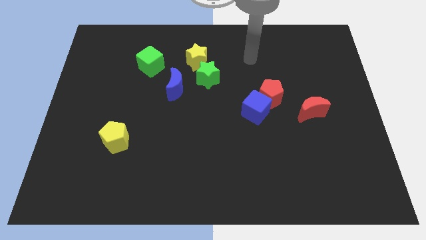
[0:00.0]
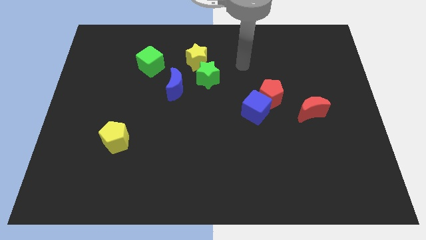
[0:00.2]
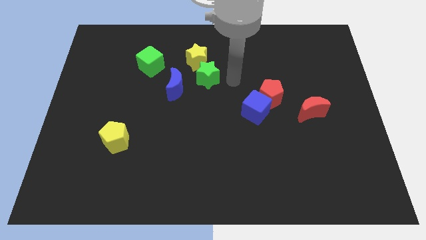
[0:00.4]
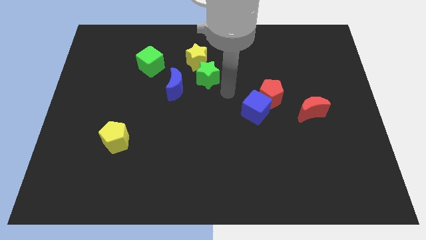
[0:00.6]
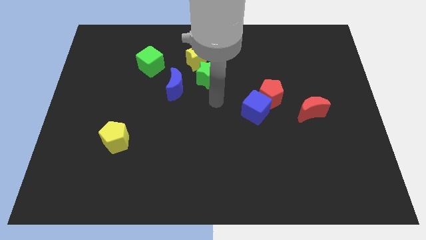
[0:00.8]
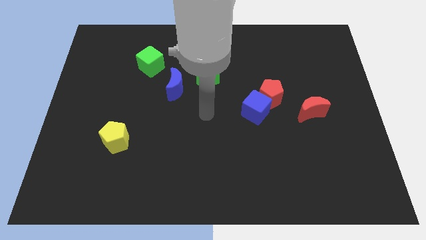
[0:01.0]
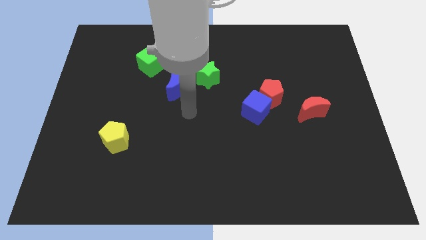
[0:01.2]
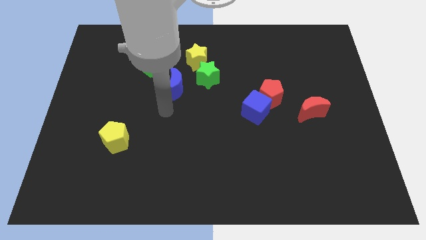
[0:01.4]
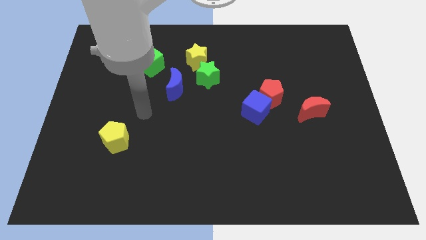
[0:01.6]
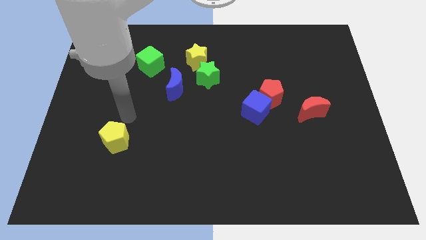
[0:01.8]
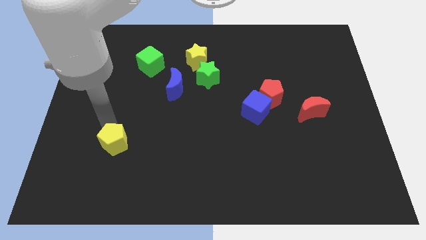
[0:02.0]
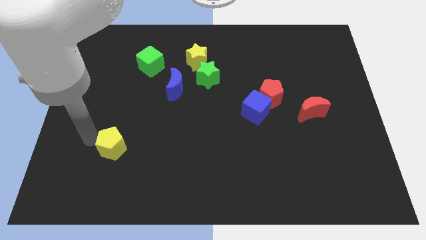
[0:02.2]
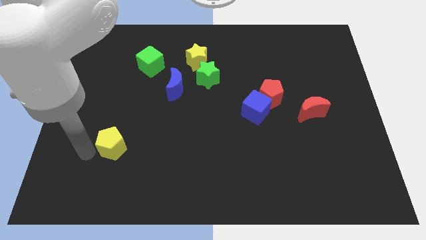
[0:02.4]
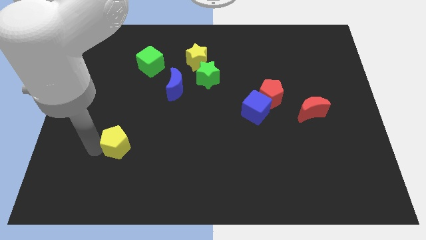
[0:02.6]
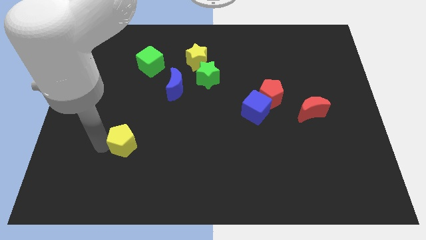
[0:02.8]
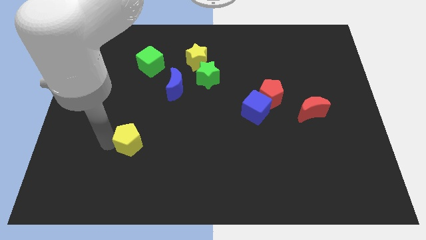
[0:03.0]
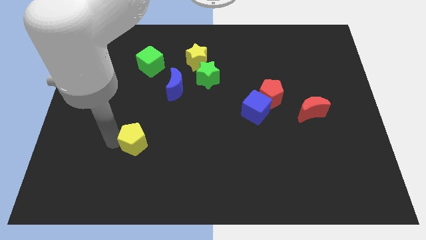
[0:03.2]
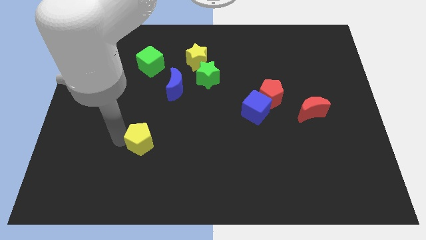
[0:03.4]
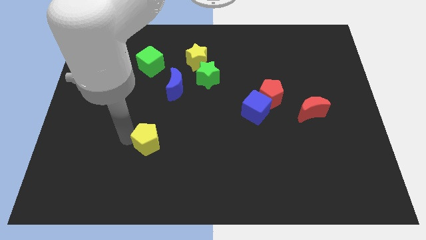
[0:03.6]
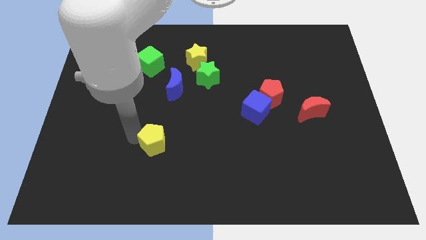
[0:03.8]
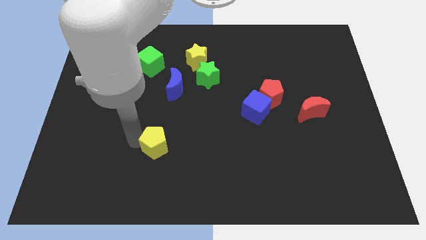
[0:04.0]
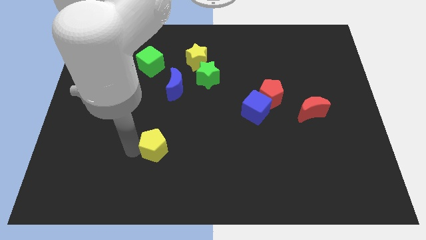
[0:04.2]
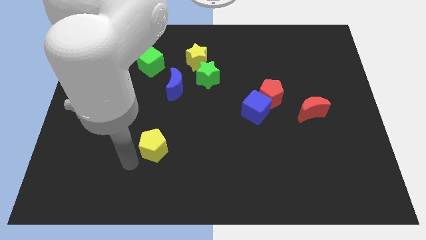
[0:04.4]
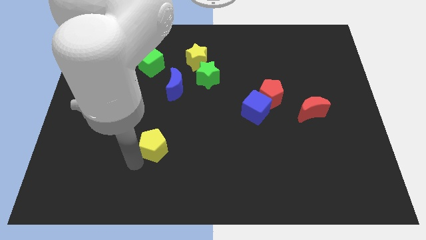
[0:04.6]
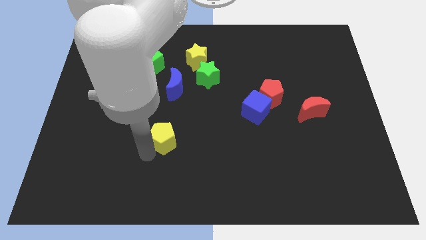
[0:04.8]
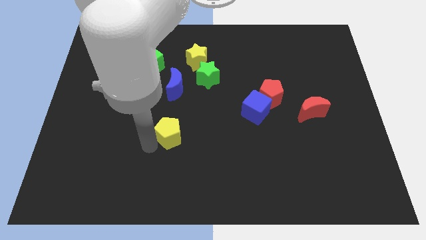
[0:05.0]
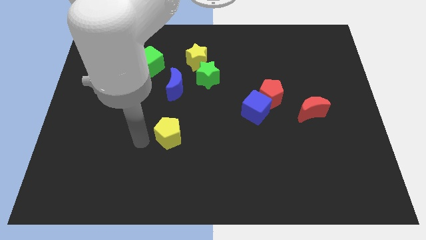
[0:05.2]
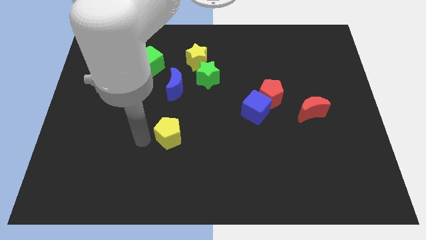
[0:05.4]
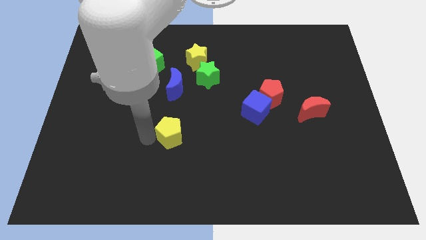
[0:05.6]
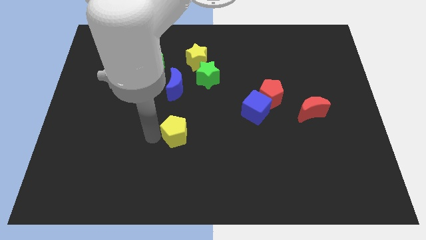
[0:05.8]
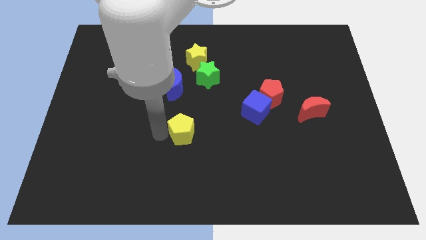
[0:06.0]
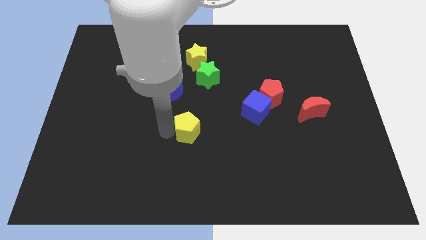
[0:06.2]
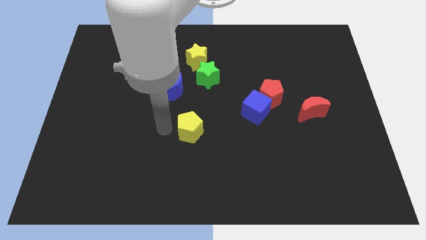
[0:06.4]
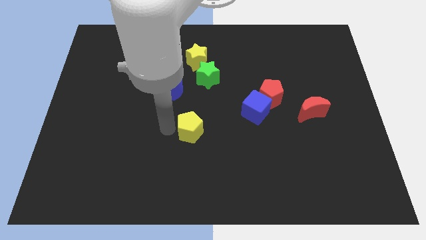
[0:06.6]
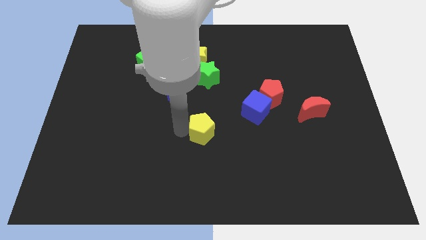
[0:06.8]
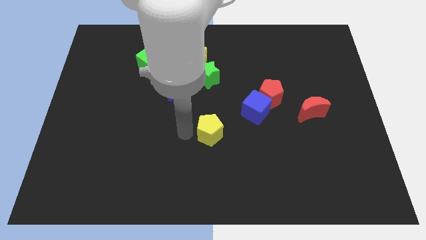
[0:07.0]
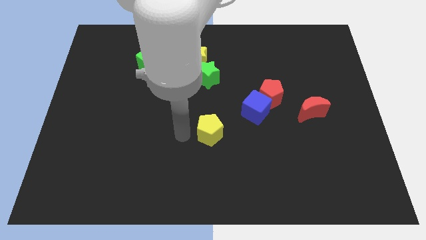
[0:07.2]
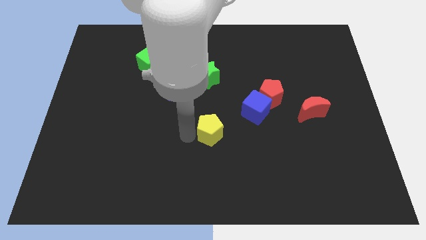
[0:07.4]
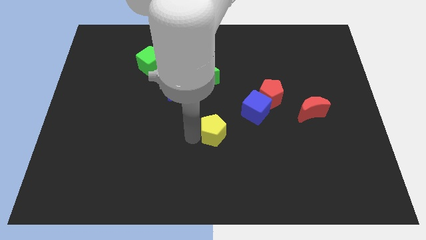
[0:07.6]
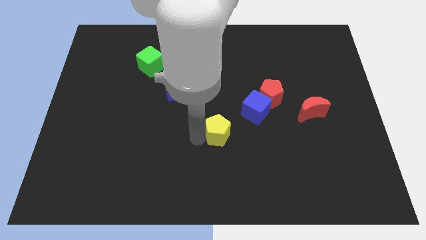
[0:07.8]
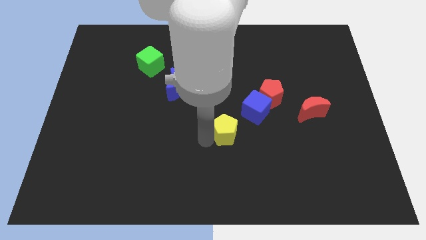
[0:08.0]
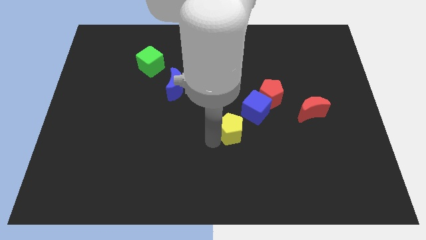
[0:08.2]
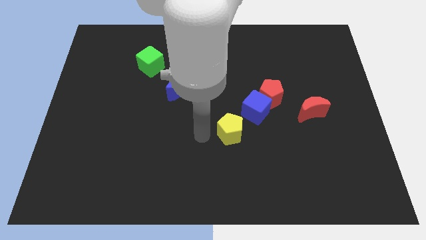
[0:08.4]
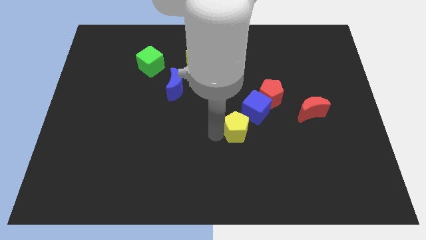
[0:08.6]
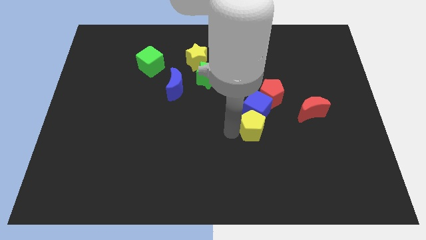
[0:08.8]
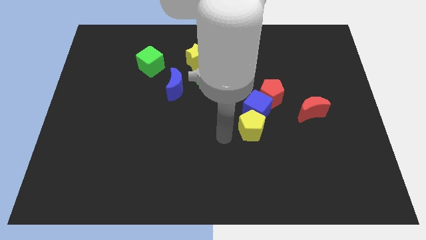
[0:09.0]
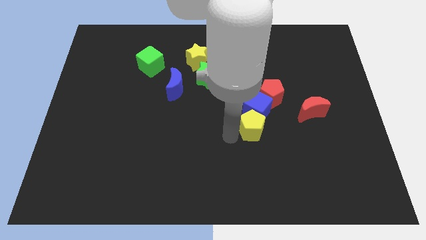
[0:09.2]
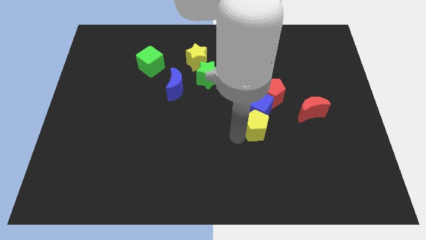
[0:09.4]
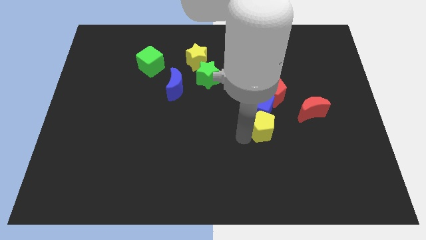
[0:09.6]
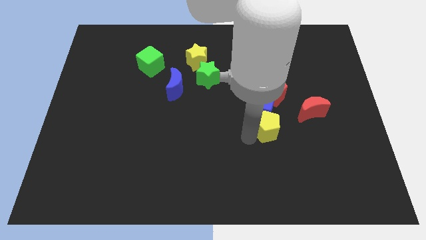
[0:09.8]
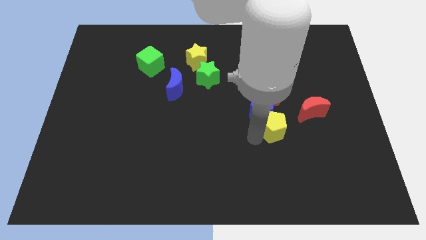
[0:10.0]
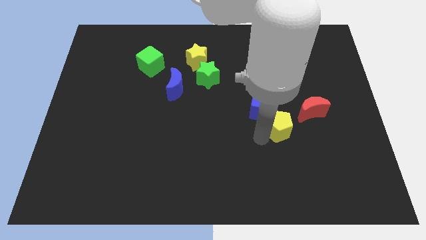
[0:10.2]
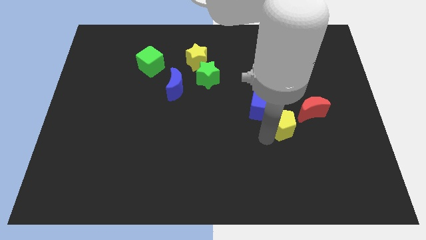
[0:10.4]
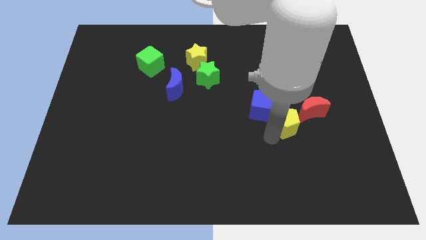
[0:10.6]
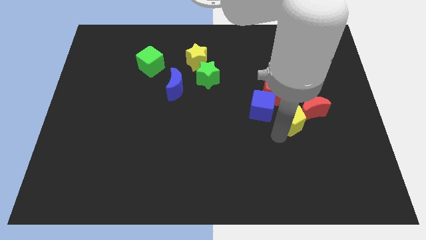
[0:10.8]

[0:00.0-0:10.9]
slide the yellow pentagon next to the red moon

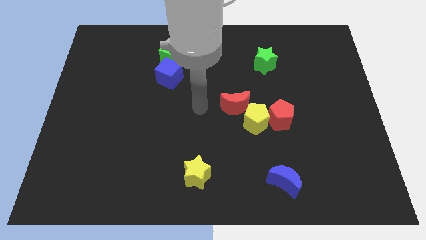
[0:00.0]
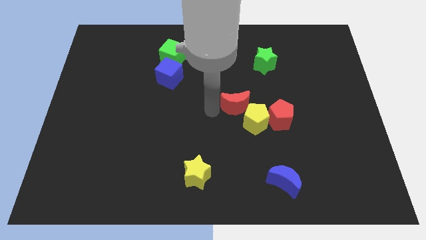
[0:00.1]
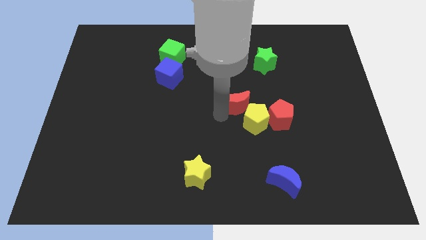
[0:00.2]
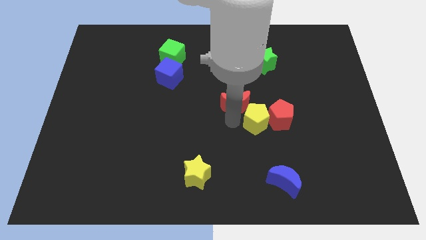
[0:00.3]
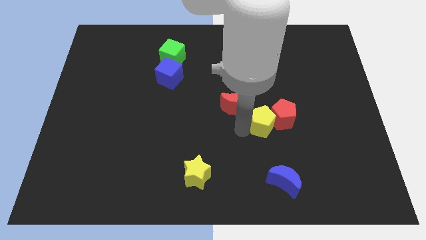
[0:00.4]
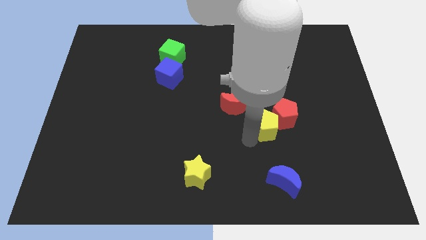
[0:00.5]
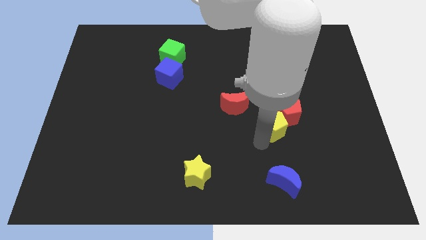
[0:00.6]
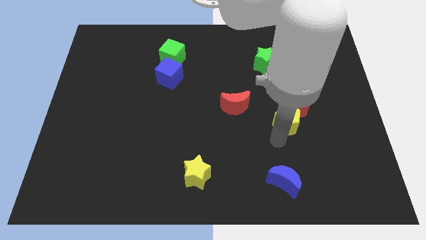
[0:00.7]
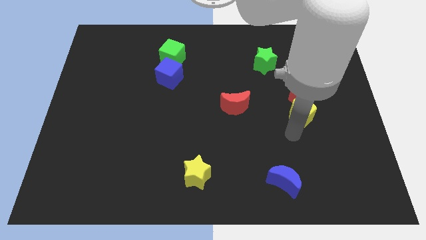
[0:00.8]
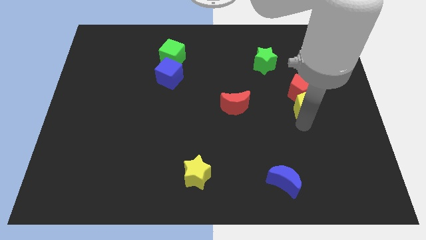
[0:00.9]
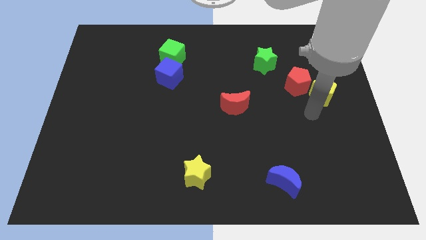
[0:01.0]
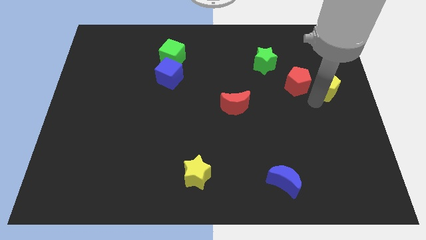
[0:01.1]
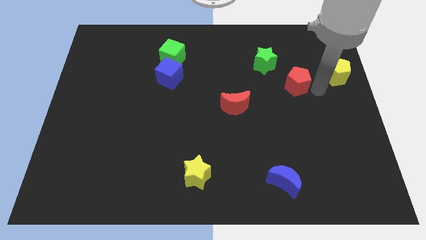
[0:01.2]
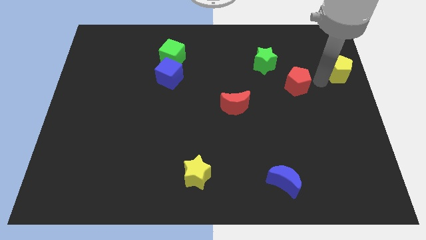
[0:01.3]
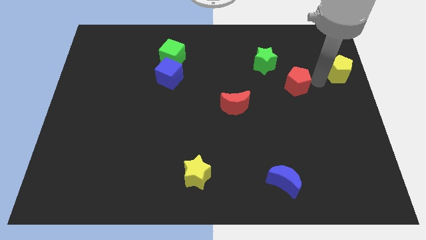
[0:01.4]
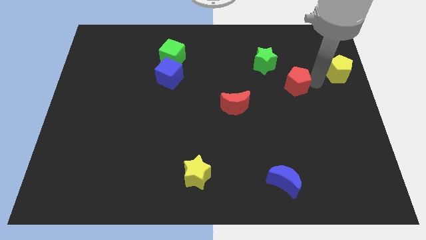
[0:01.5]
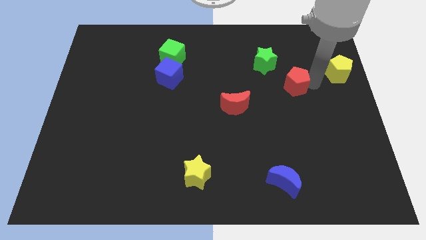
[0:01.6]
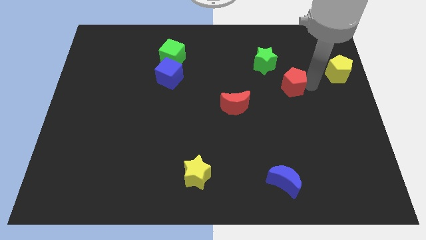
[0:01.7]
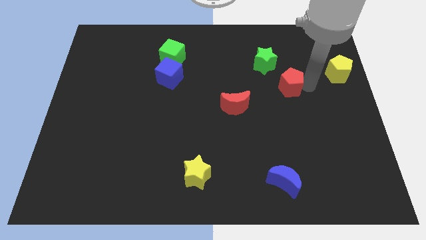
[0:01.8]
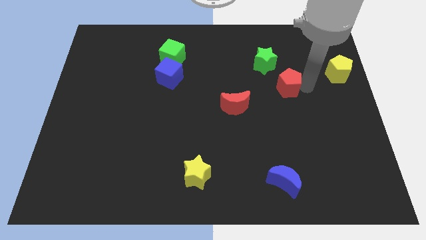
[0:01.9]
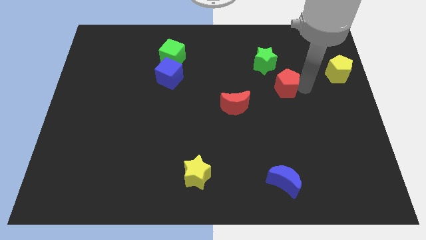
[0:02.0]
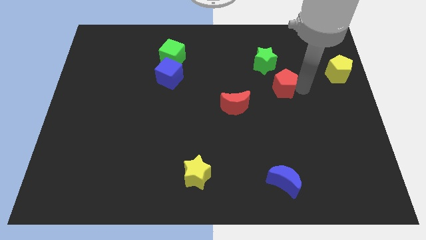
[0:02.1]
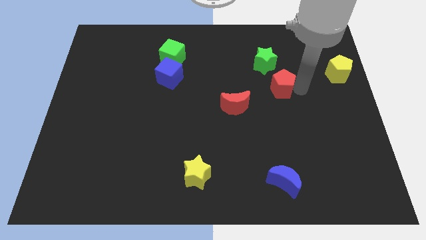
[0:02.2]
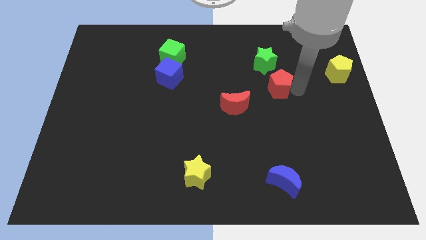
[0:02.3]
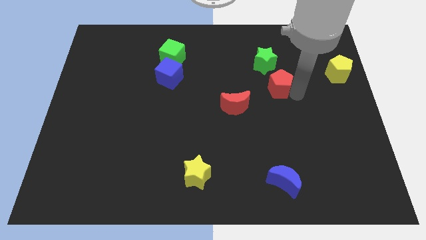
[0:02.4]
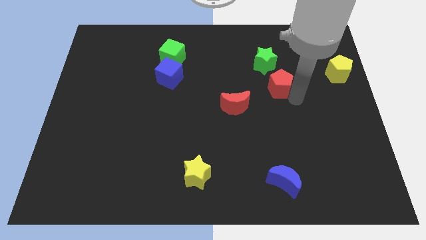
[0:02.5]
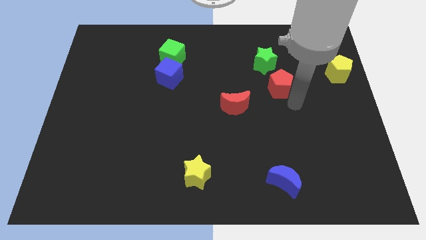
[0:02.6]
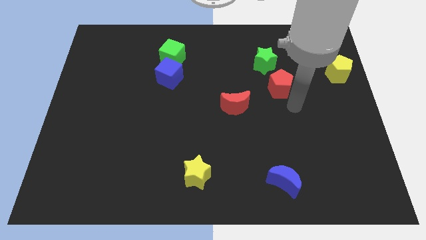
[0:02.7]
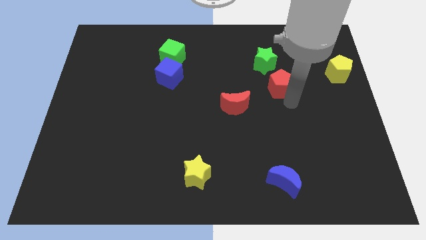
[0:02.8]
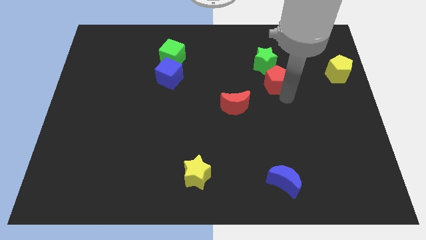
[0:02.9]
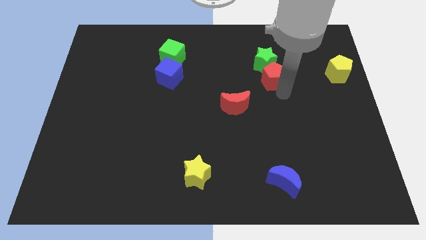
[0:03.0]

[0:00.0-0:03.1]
move the red pentagon close to the green star
